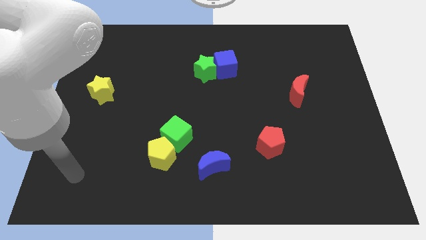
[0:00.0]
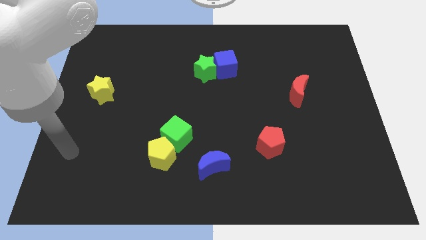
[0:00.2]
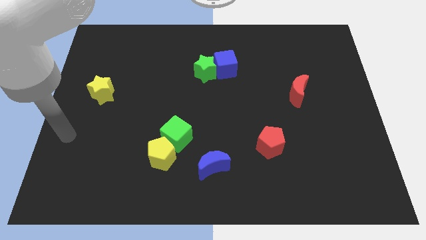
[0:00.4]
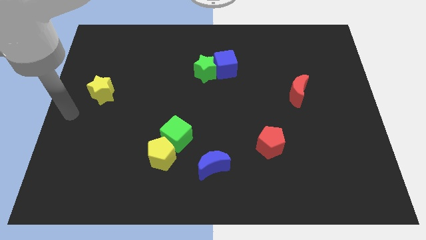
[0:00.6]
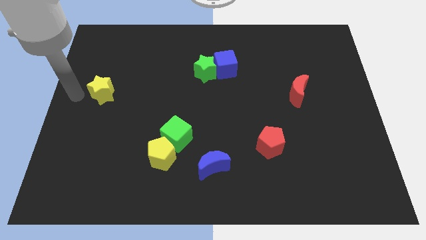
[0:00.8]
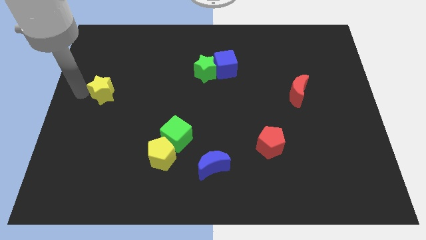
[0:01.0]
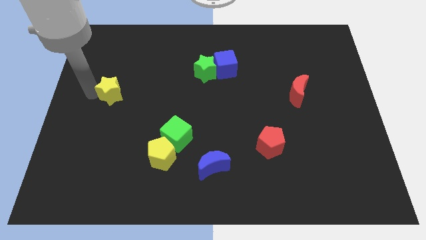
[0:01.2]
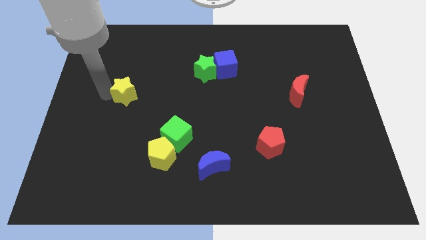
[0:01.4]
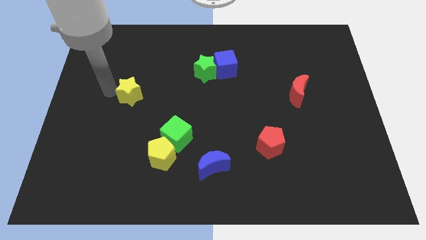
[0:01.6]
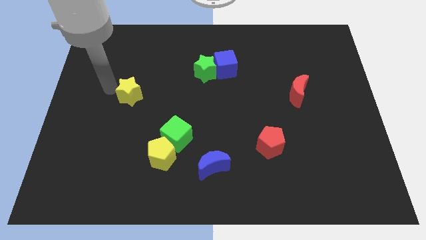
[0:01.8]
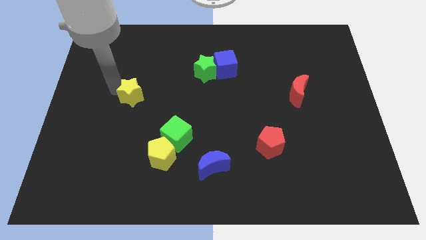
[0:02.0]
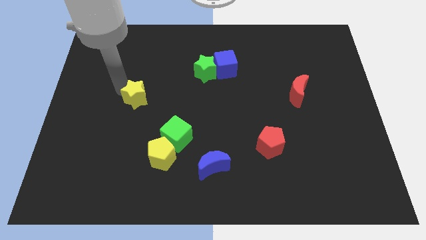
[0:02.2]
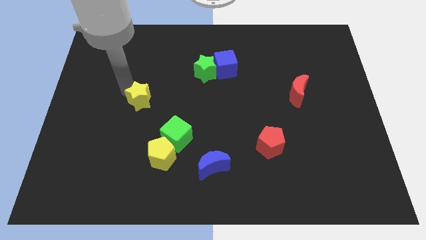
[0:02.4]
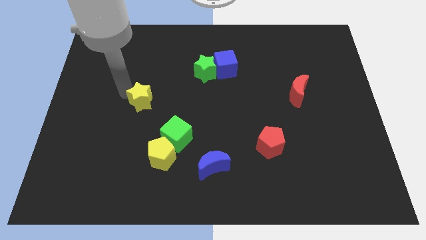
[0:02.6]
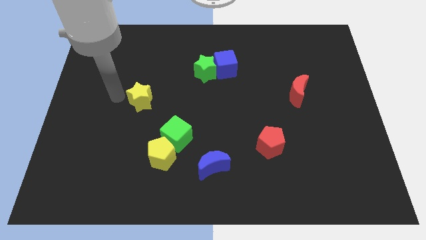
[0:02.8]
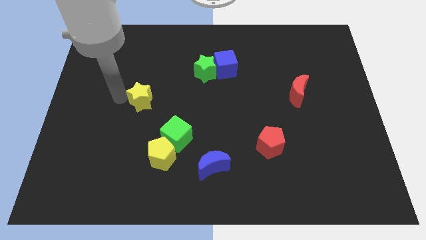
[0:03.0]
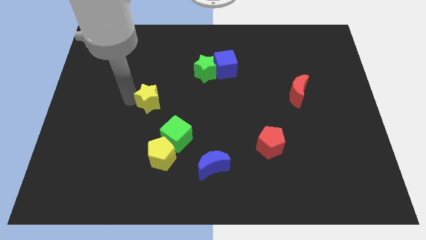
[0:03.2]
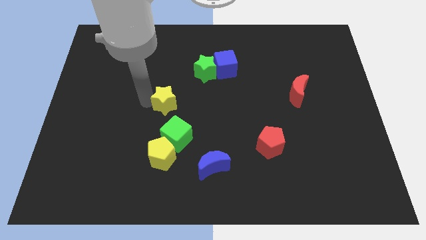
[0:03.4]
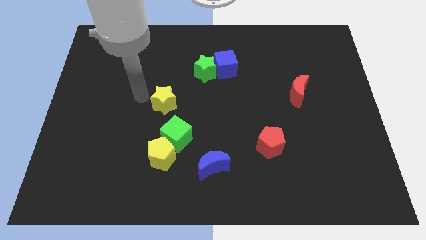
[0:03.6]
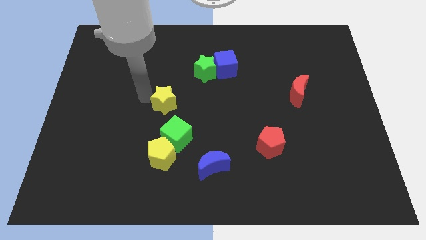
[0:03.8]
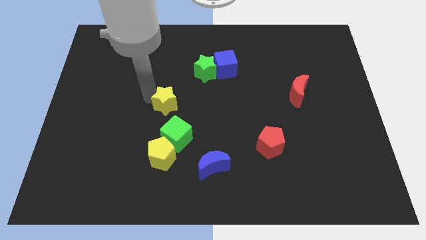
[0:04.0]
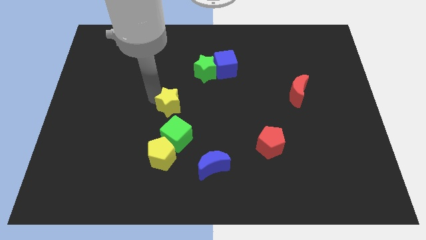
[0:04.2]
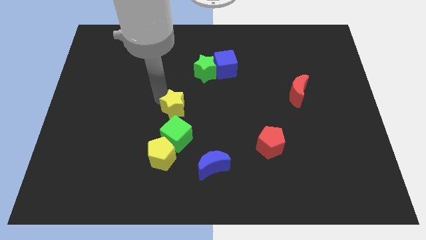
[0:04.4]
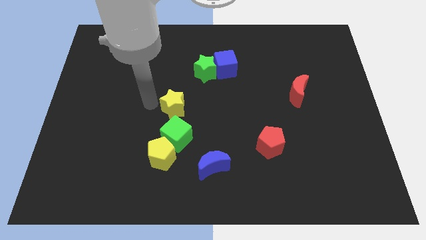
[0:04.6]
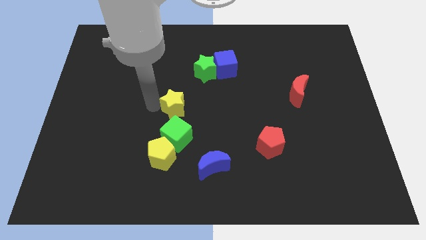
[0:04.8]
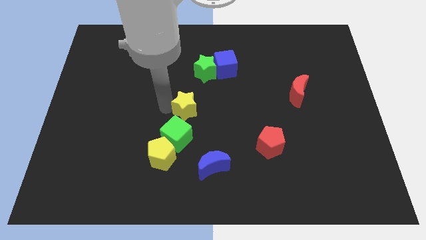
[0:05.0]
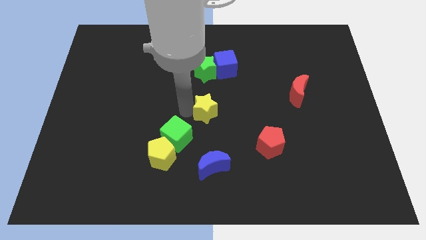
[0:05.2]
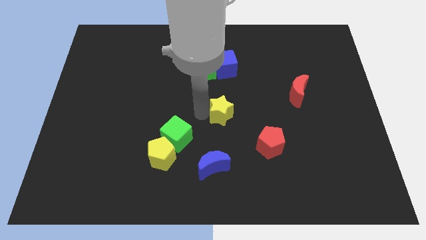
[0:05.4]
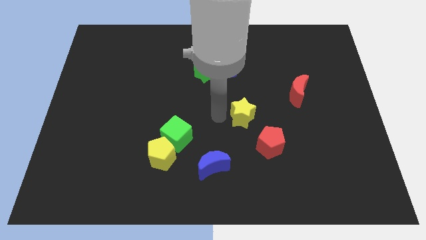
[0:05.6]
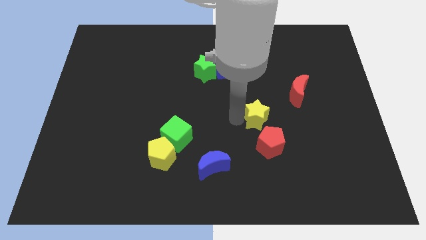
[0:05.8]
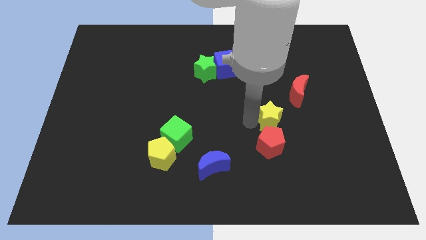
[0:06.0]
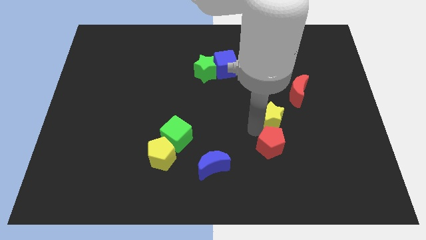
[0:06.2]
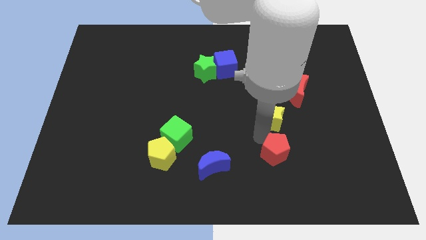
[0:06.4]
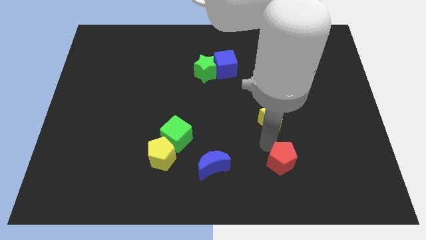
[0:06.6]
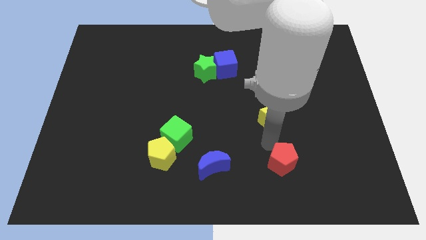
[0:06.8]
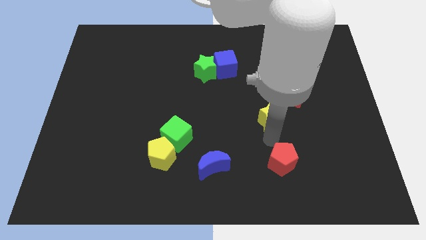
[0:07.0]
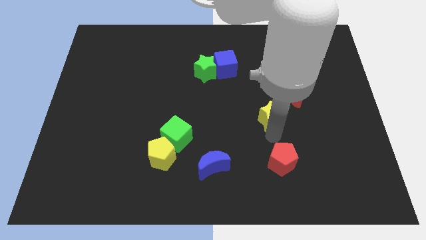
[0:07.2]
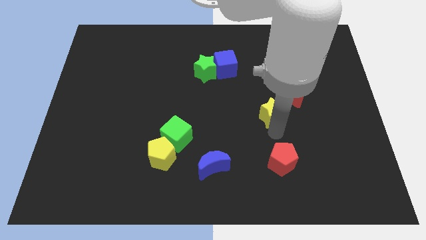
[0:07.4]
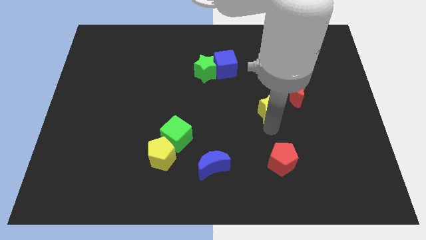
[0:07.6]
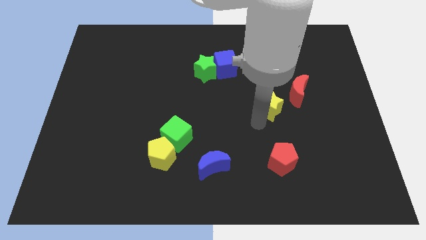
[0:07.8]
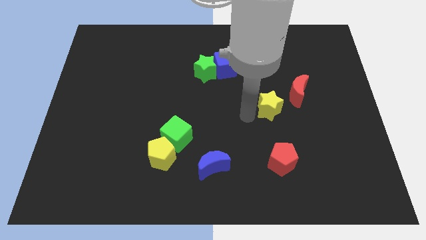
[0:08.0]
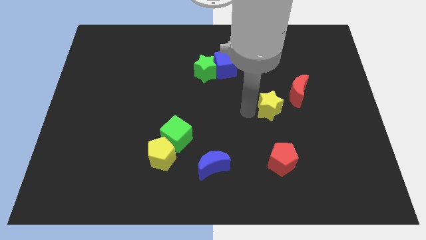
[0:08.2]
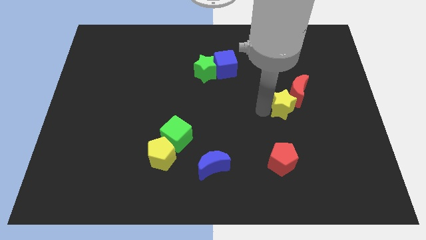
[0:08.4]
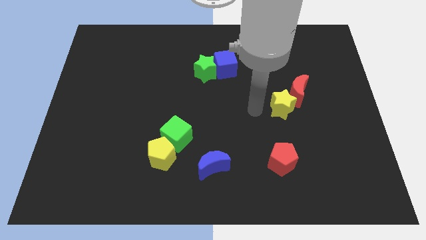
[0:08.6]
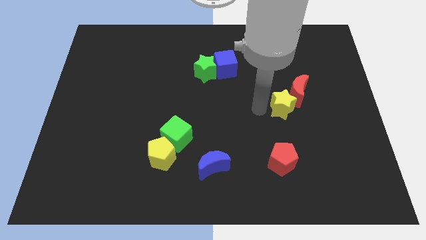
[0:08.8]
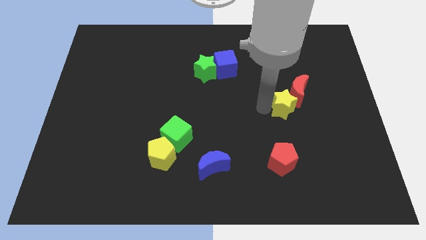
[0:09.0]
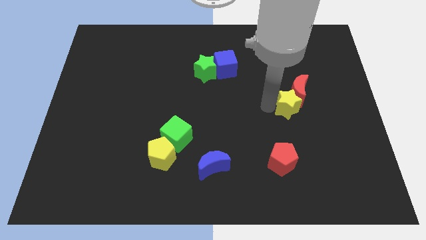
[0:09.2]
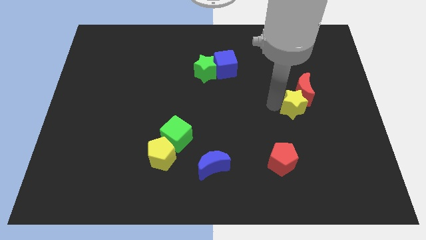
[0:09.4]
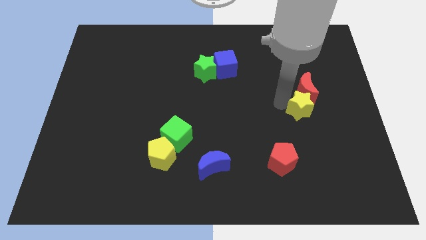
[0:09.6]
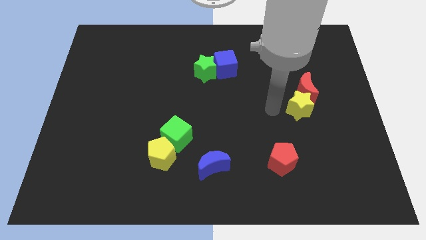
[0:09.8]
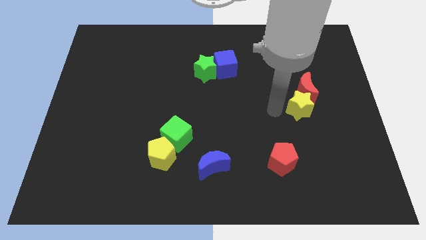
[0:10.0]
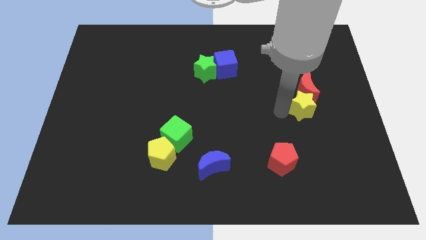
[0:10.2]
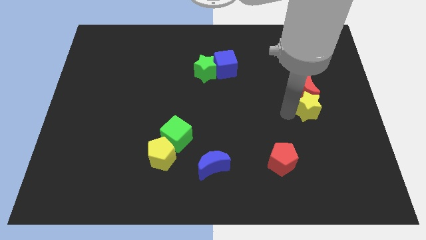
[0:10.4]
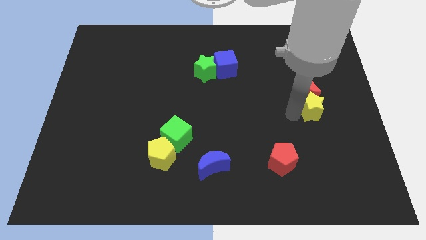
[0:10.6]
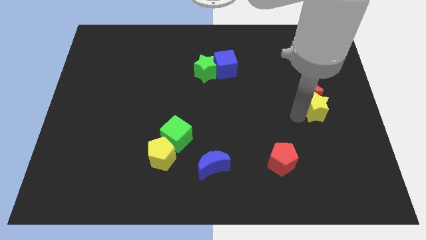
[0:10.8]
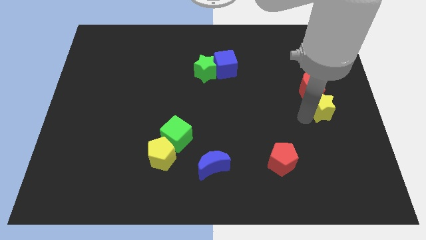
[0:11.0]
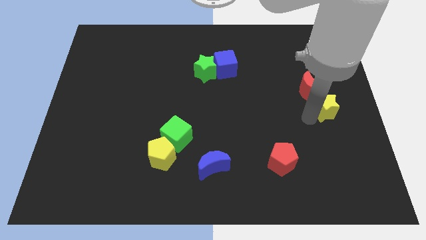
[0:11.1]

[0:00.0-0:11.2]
put the yellow star to the right side
